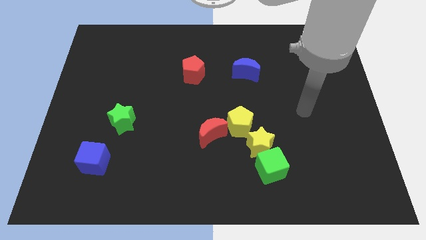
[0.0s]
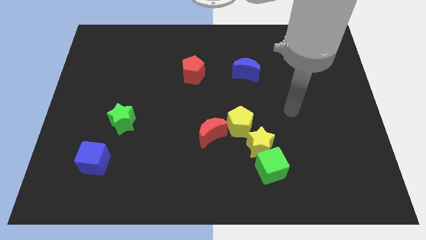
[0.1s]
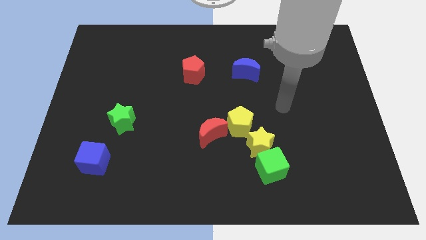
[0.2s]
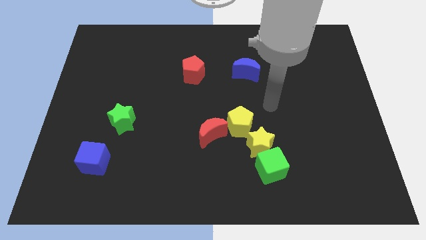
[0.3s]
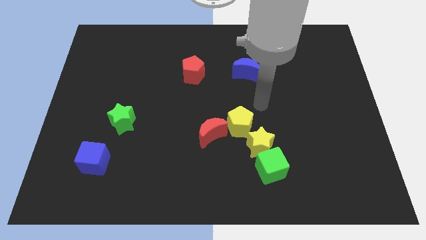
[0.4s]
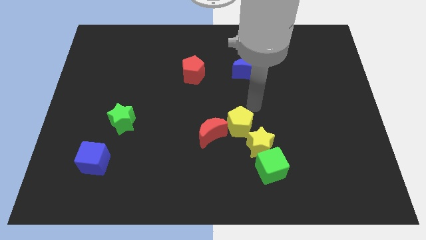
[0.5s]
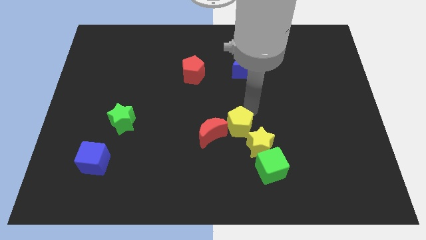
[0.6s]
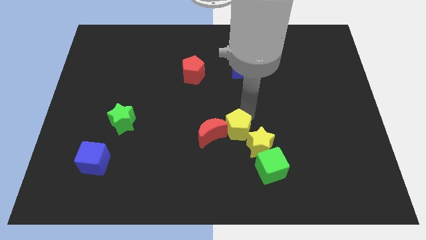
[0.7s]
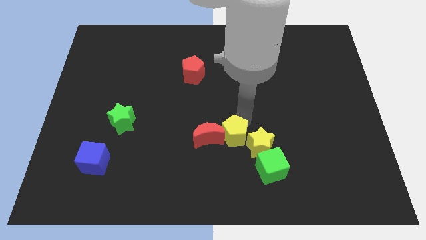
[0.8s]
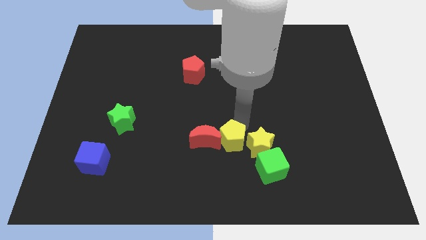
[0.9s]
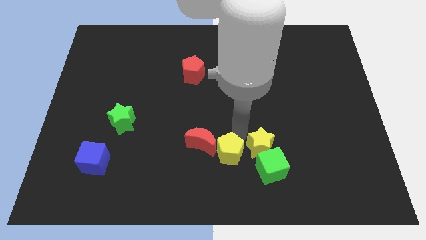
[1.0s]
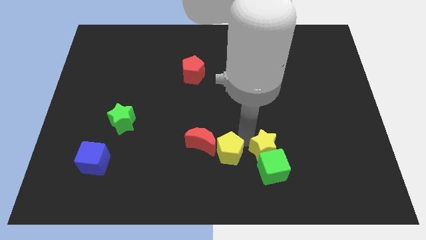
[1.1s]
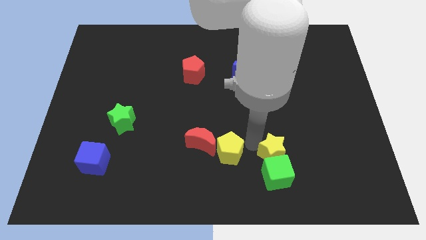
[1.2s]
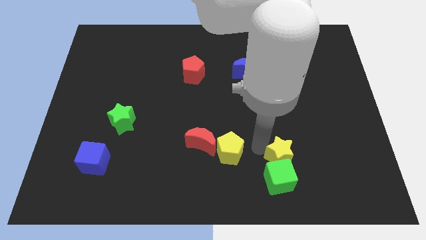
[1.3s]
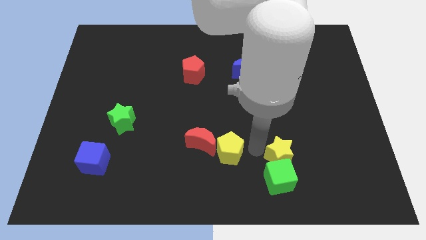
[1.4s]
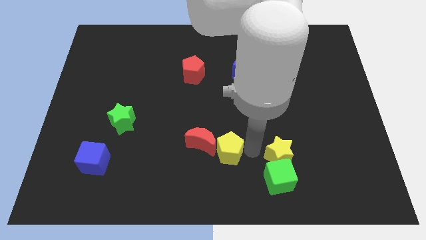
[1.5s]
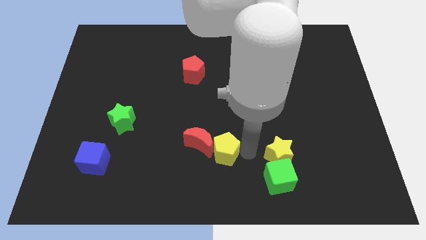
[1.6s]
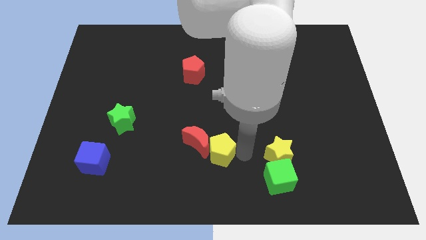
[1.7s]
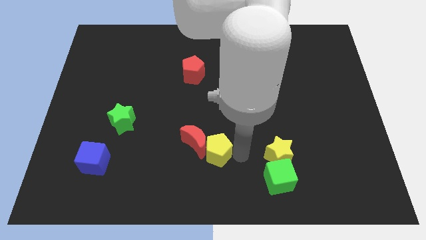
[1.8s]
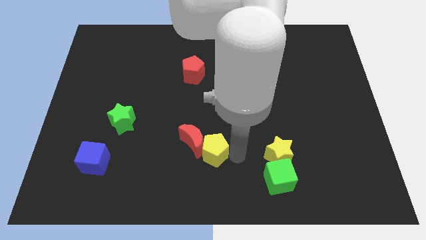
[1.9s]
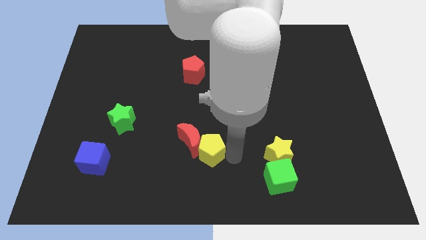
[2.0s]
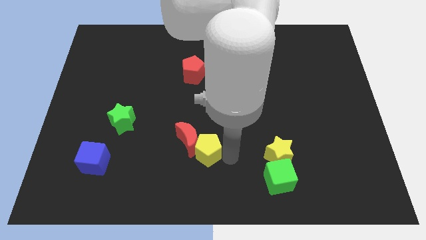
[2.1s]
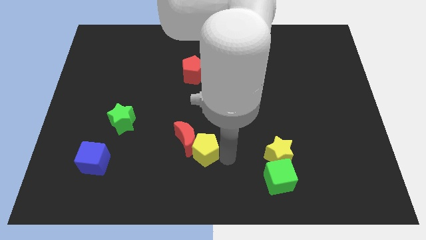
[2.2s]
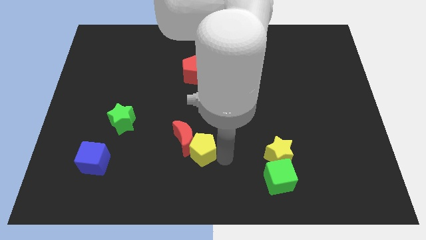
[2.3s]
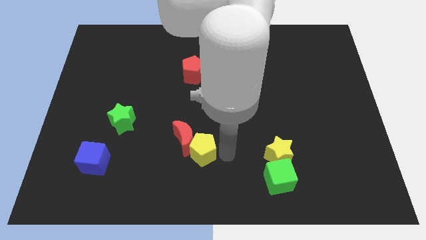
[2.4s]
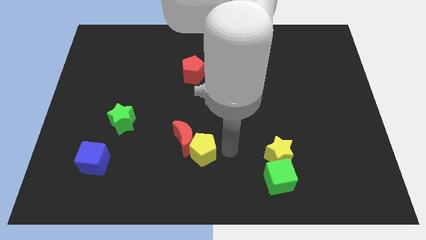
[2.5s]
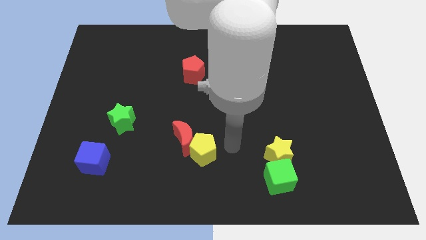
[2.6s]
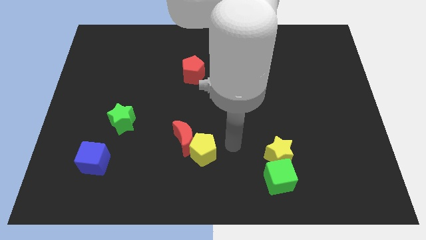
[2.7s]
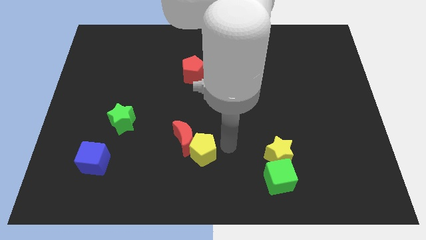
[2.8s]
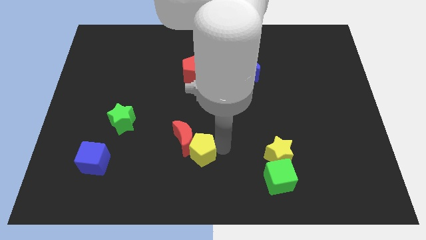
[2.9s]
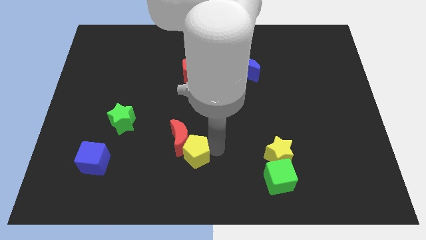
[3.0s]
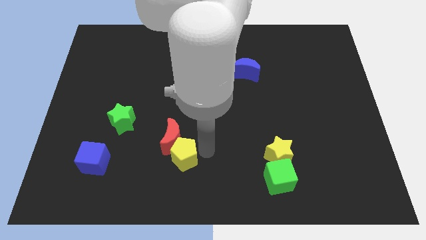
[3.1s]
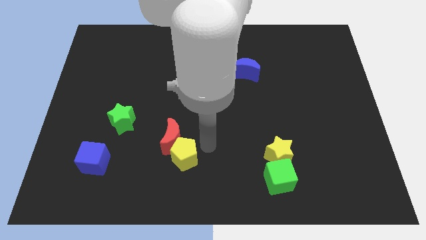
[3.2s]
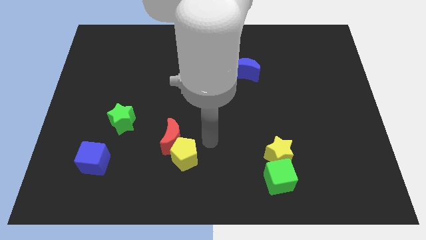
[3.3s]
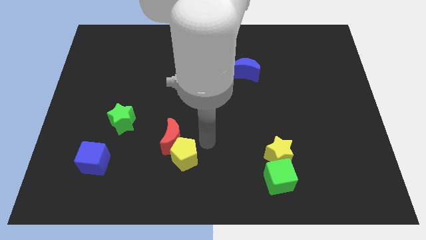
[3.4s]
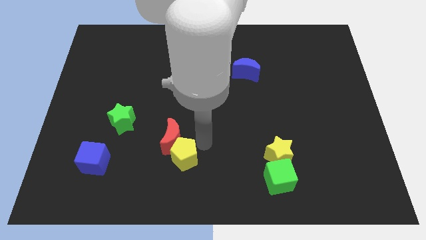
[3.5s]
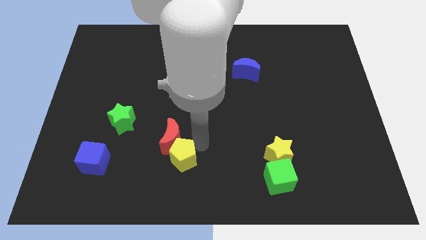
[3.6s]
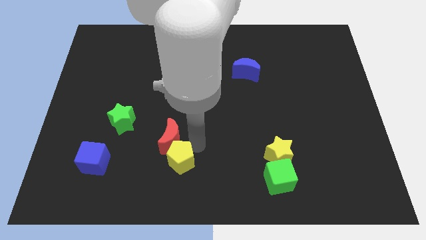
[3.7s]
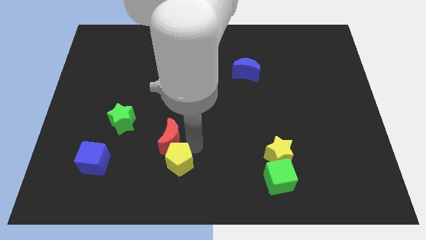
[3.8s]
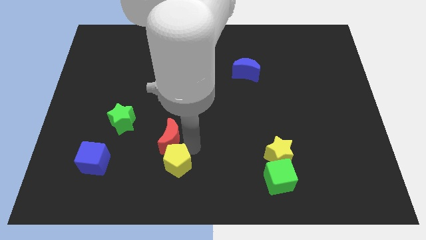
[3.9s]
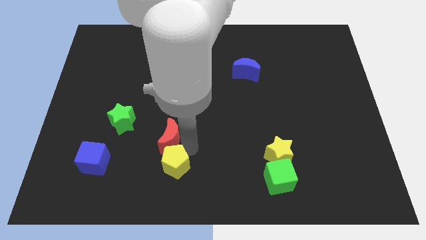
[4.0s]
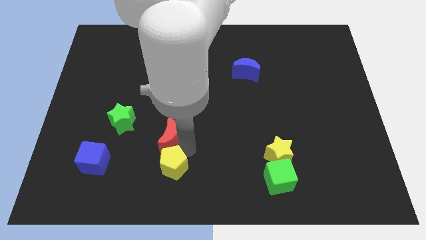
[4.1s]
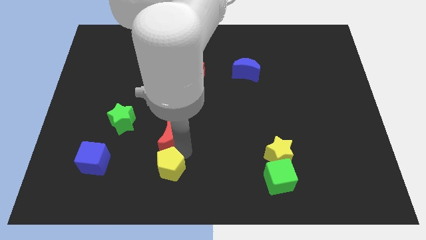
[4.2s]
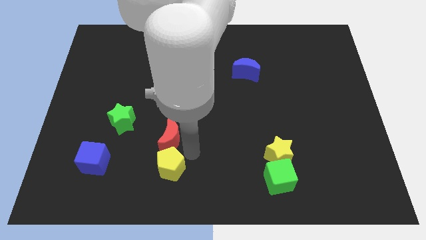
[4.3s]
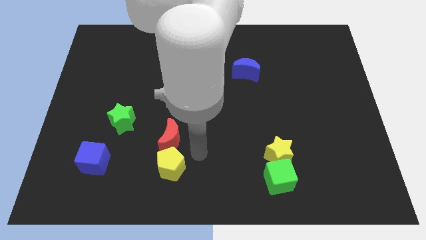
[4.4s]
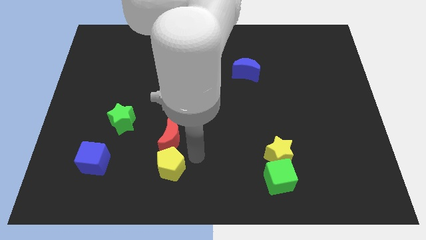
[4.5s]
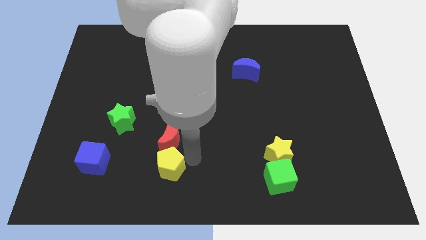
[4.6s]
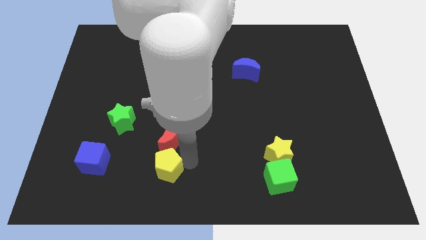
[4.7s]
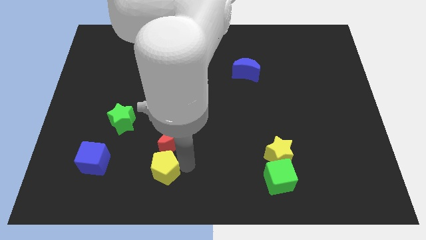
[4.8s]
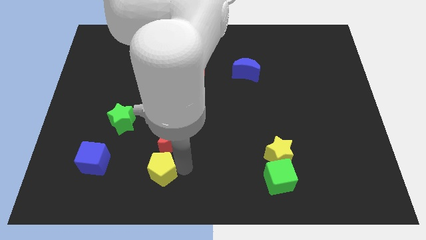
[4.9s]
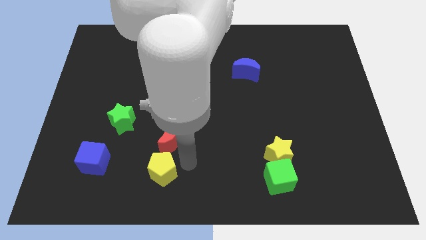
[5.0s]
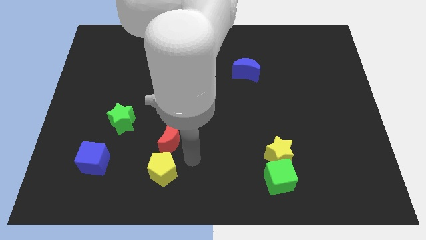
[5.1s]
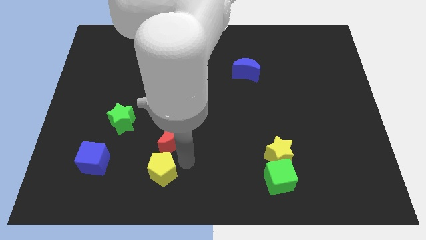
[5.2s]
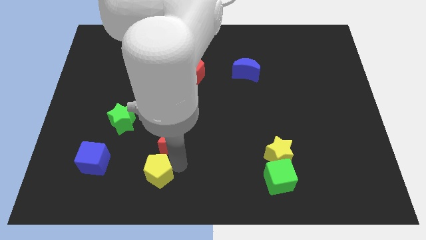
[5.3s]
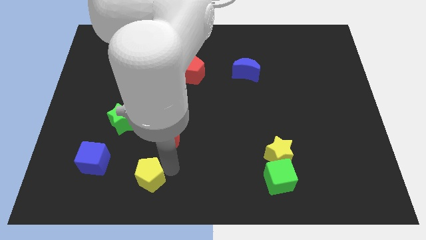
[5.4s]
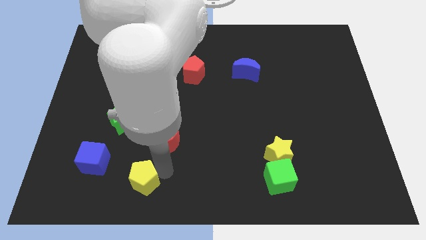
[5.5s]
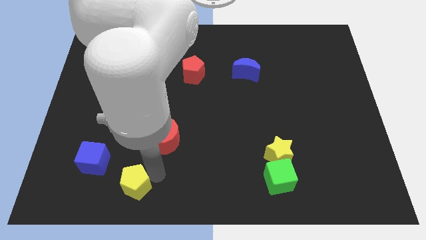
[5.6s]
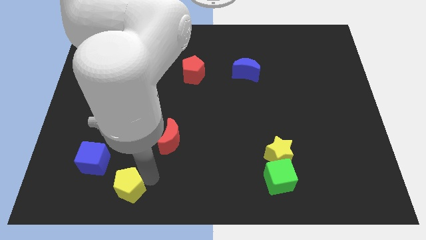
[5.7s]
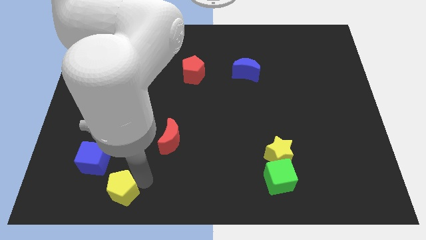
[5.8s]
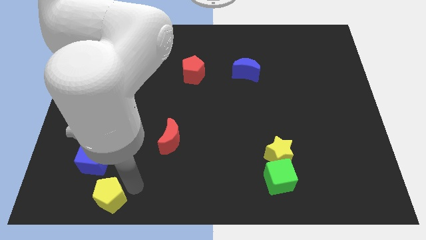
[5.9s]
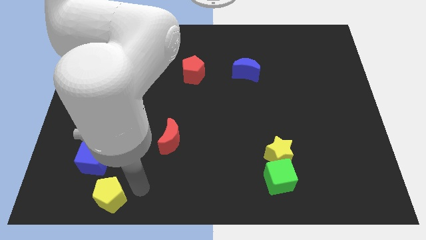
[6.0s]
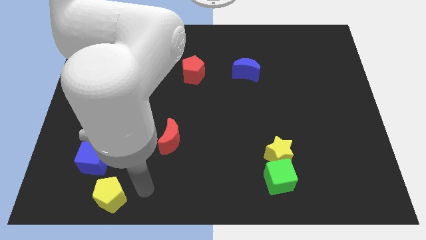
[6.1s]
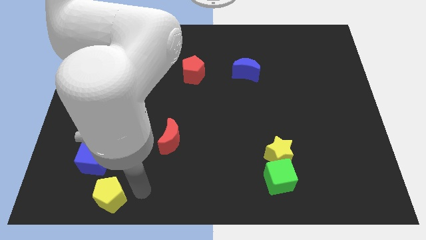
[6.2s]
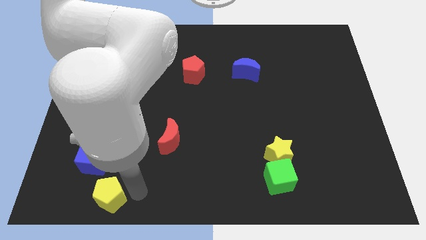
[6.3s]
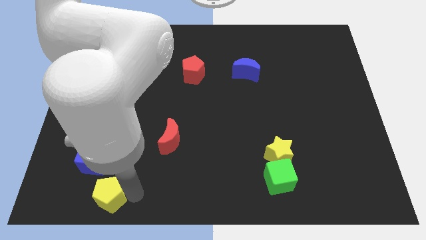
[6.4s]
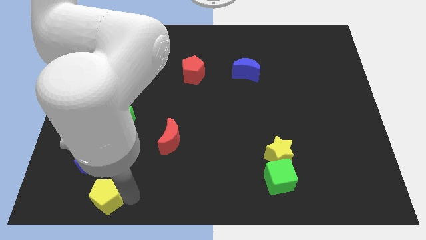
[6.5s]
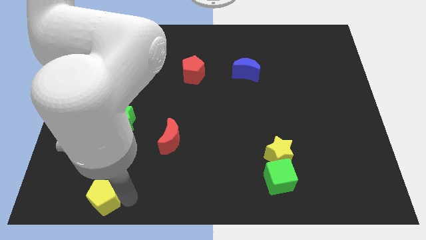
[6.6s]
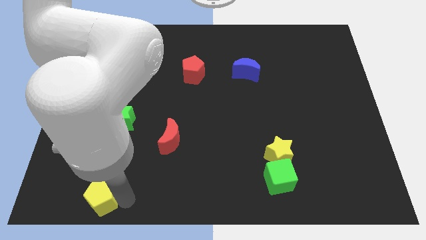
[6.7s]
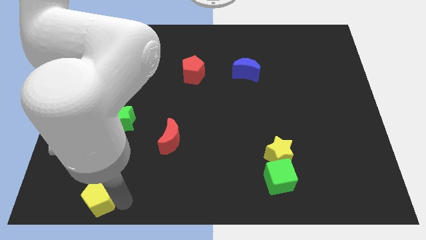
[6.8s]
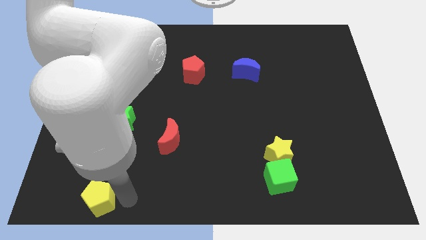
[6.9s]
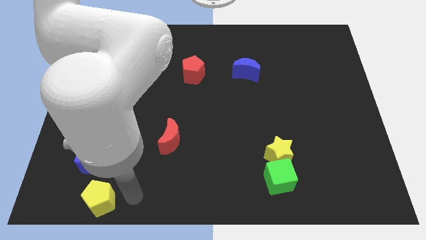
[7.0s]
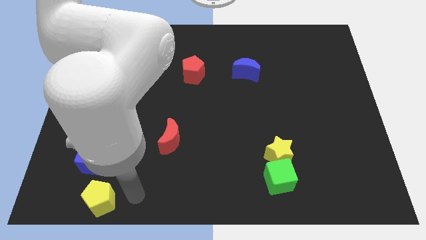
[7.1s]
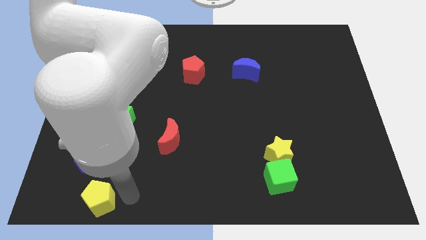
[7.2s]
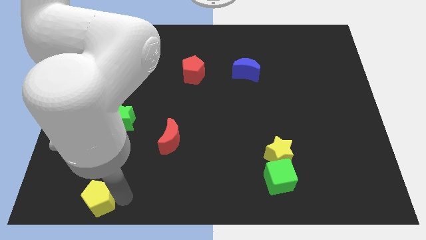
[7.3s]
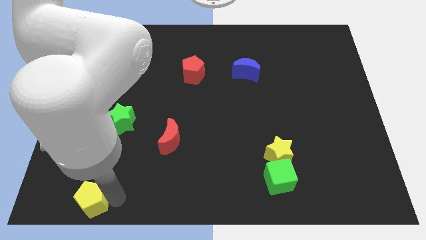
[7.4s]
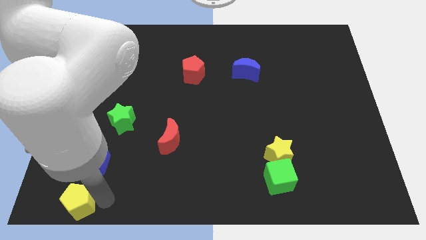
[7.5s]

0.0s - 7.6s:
slide the yellow pentagon to the bottom left corner
